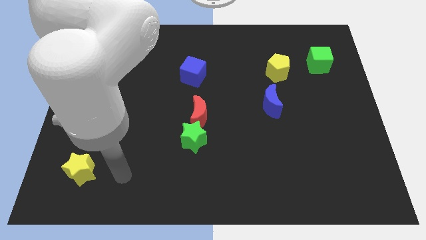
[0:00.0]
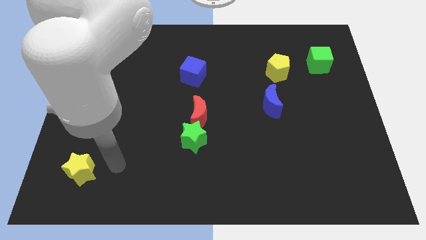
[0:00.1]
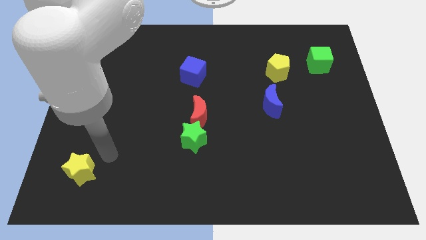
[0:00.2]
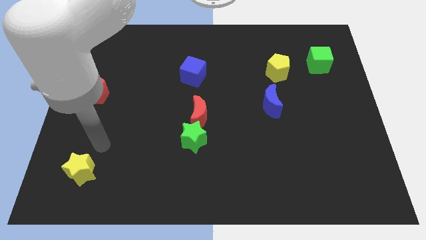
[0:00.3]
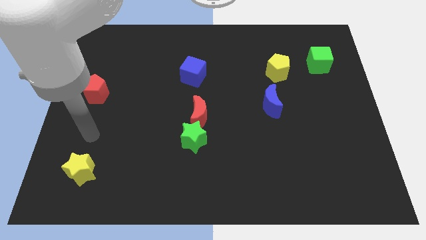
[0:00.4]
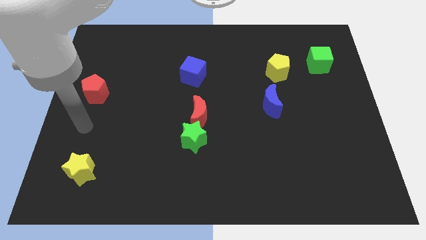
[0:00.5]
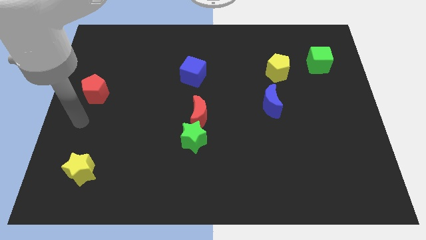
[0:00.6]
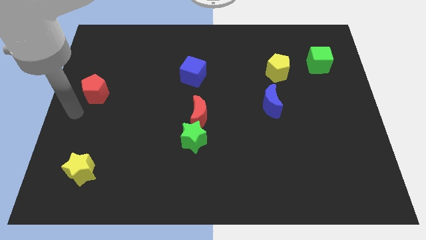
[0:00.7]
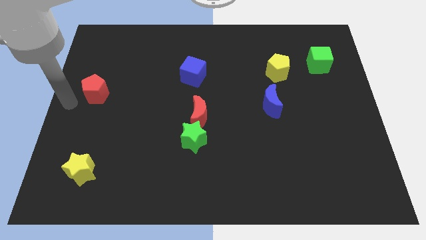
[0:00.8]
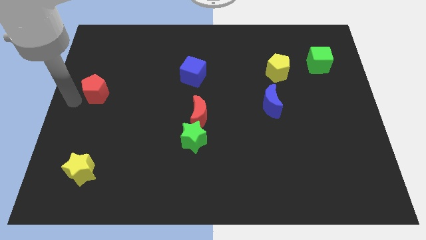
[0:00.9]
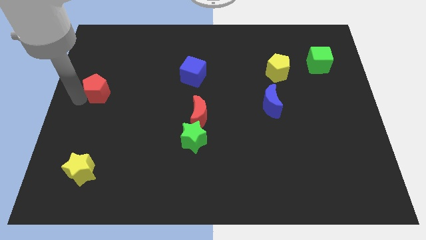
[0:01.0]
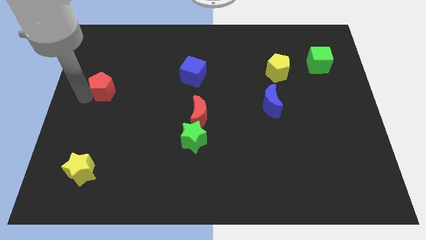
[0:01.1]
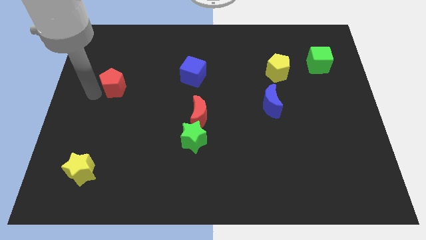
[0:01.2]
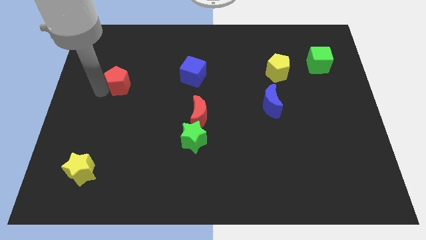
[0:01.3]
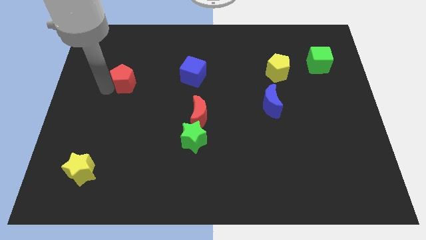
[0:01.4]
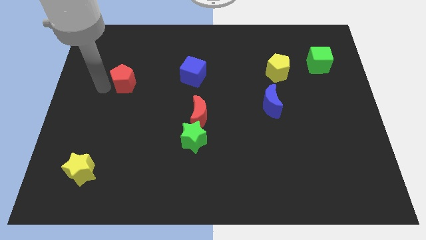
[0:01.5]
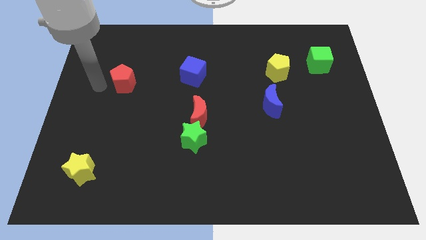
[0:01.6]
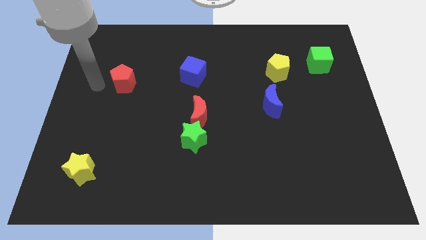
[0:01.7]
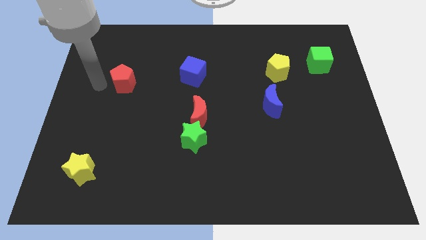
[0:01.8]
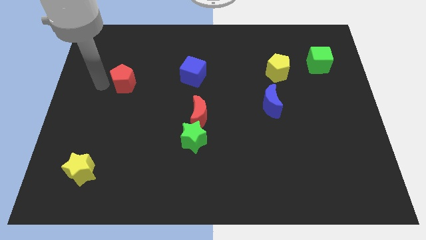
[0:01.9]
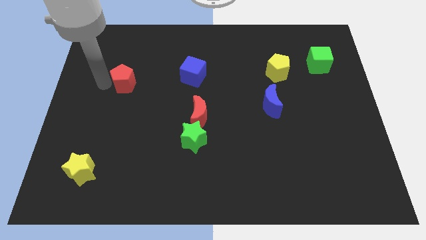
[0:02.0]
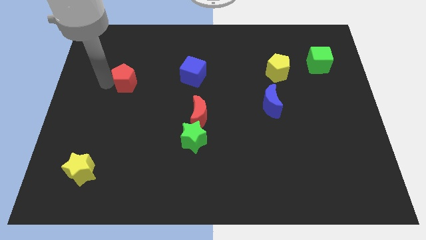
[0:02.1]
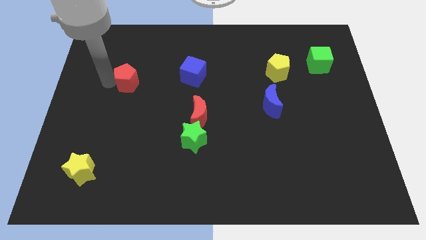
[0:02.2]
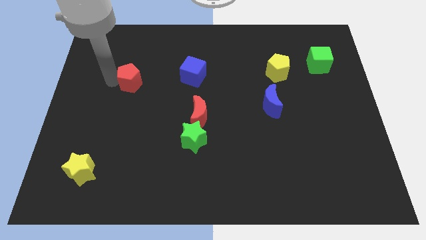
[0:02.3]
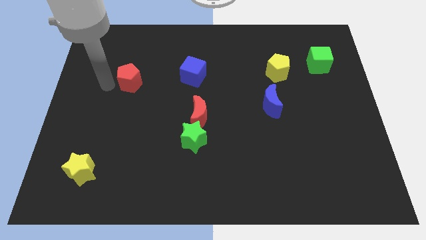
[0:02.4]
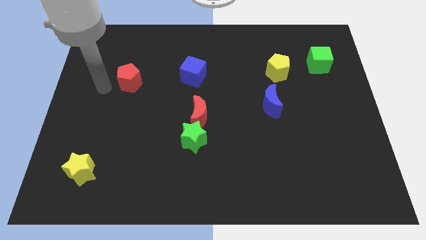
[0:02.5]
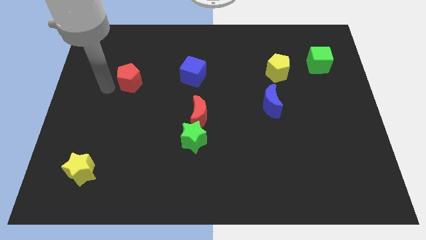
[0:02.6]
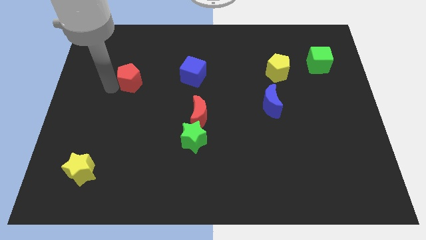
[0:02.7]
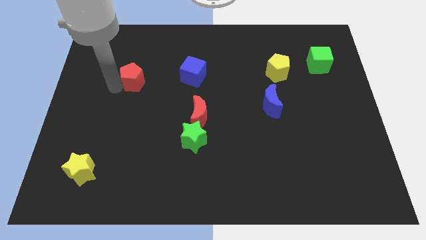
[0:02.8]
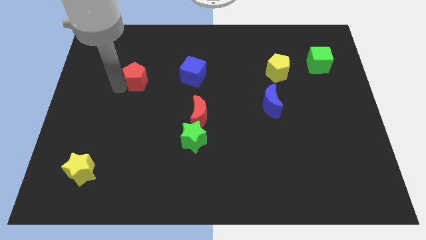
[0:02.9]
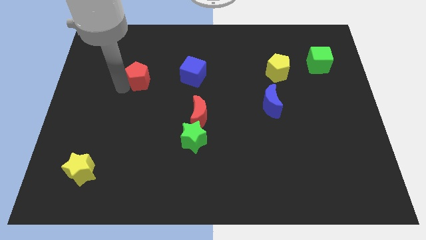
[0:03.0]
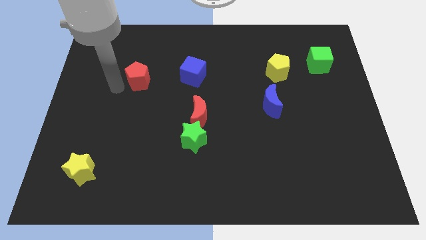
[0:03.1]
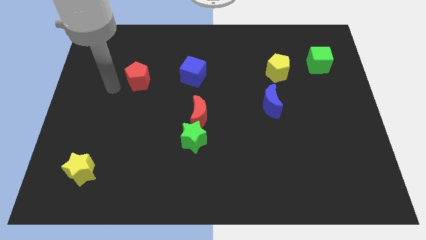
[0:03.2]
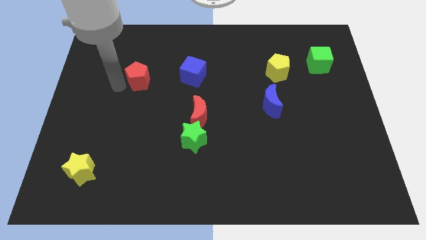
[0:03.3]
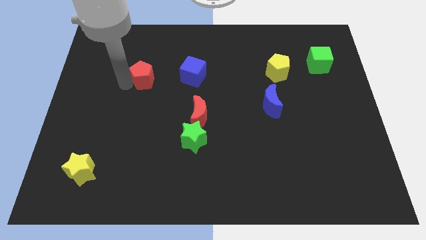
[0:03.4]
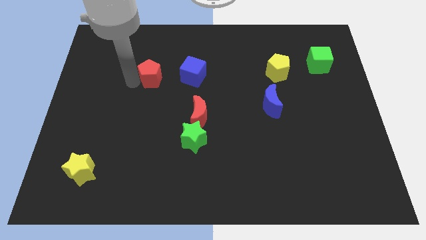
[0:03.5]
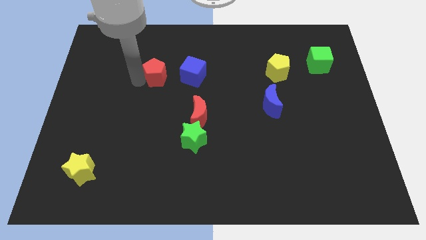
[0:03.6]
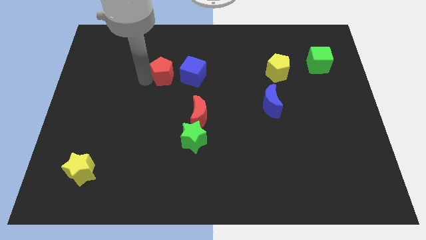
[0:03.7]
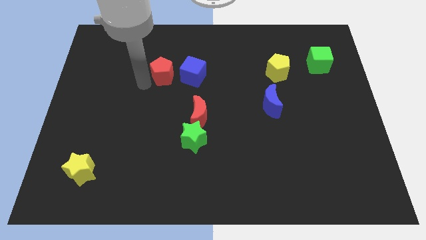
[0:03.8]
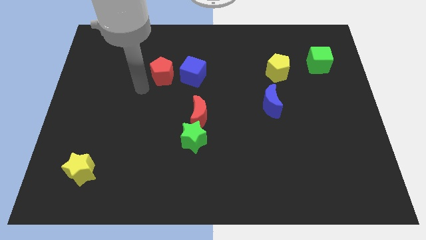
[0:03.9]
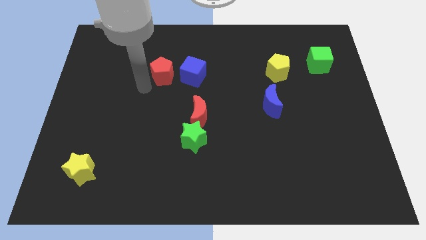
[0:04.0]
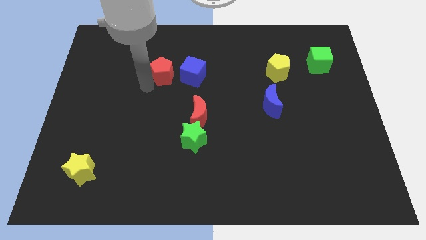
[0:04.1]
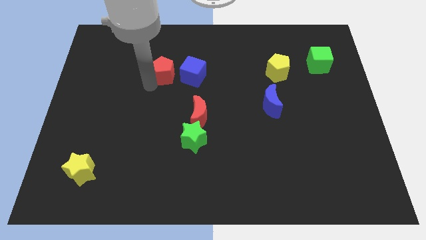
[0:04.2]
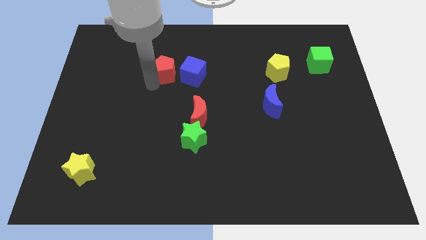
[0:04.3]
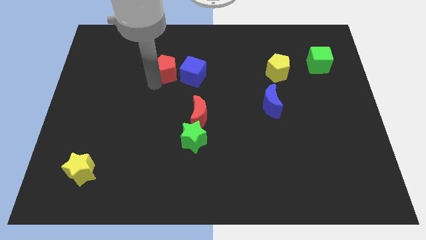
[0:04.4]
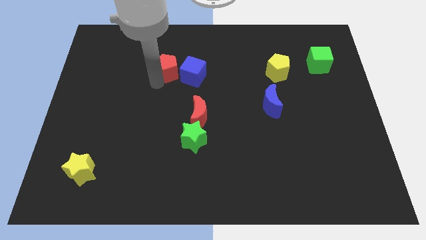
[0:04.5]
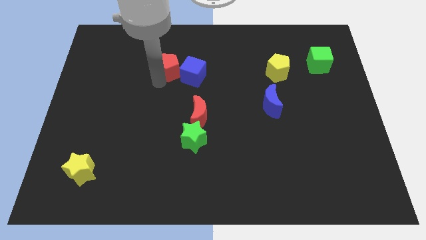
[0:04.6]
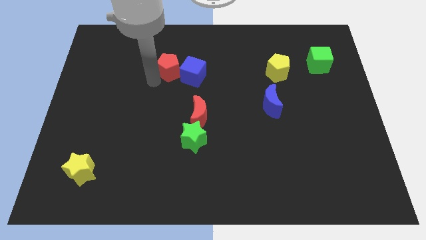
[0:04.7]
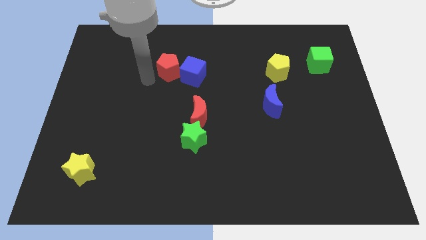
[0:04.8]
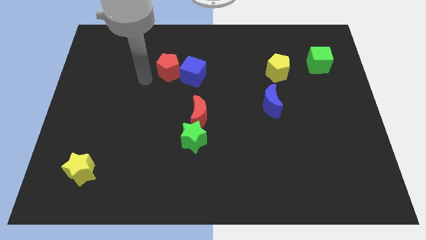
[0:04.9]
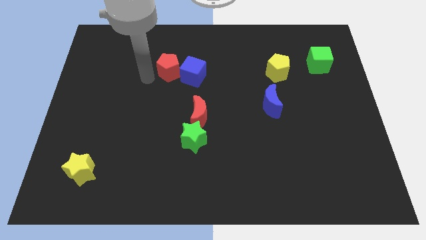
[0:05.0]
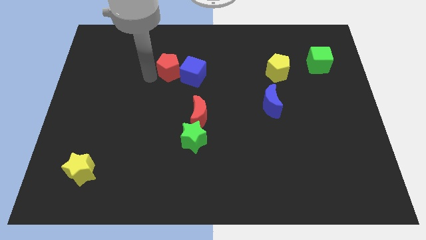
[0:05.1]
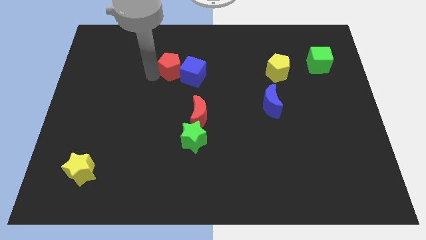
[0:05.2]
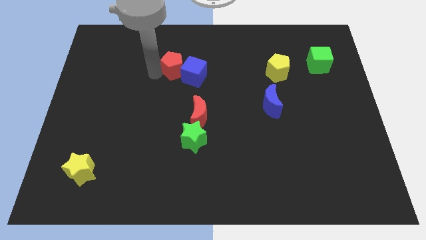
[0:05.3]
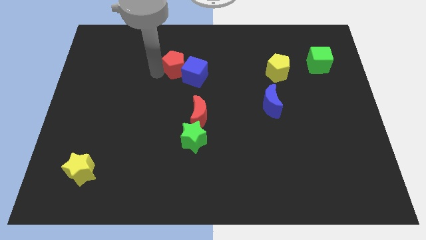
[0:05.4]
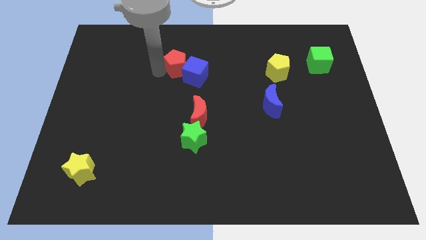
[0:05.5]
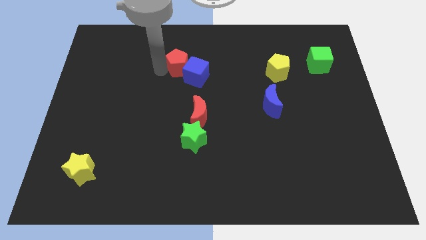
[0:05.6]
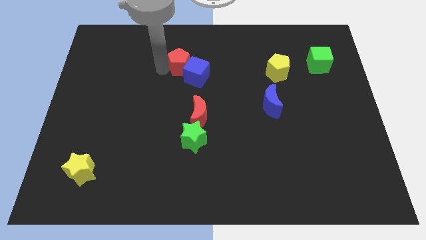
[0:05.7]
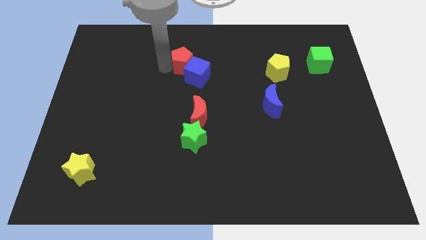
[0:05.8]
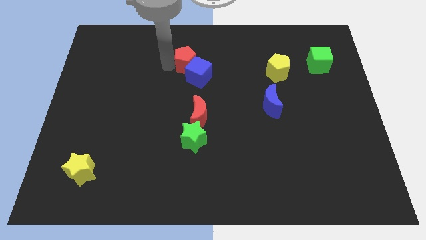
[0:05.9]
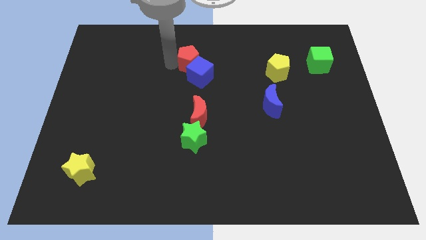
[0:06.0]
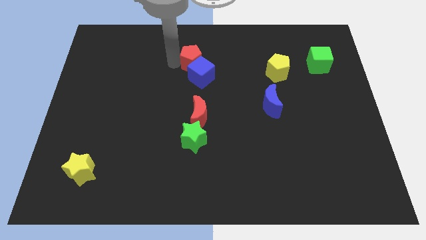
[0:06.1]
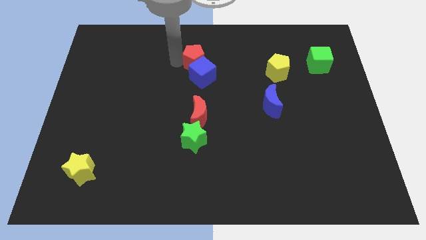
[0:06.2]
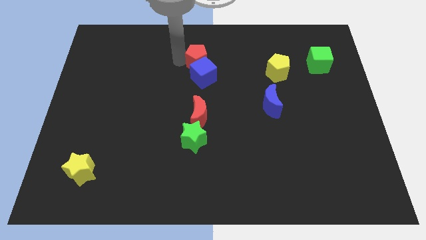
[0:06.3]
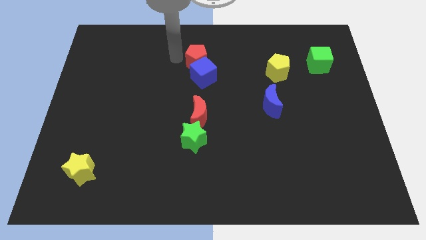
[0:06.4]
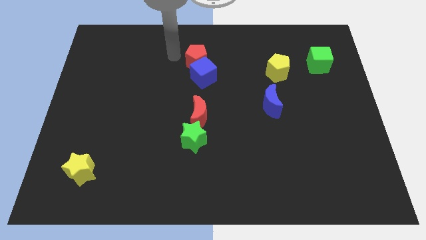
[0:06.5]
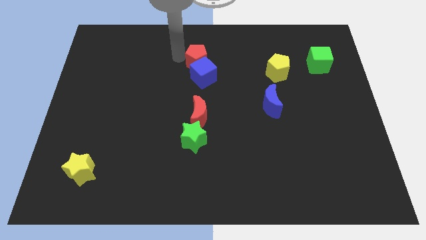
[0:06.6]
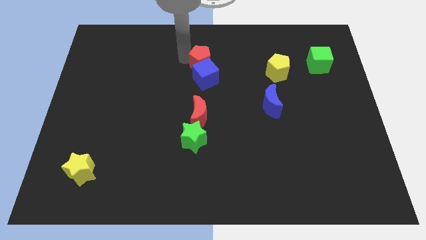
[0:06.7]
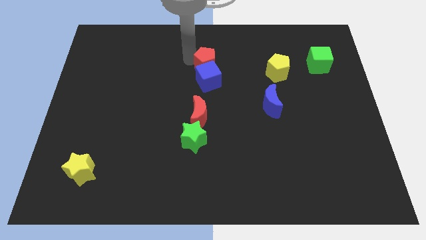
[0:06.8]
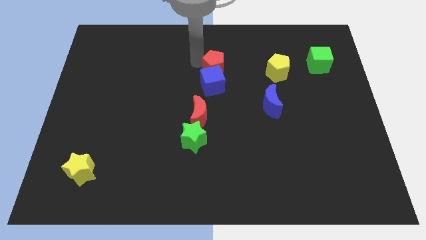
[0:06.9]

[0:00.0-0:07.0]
slide the red pentagon just left of the yellow pentagon
